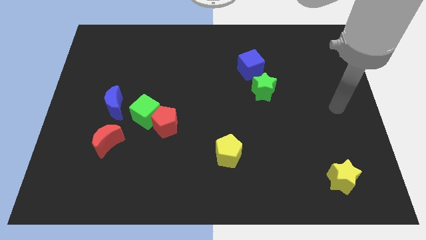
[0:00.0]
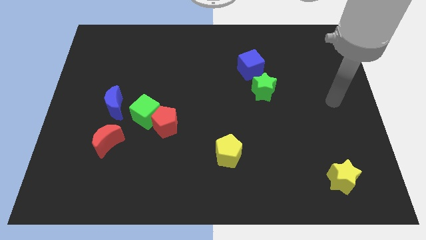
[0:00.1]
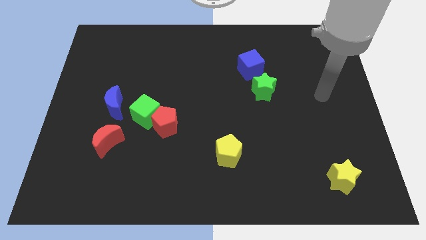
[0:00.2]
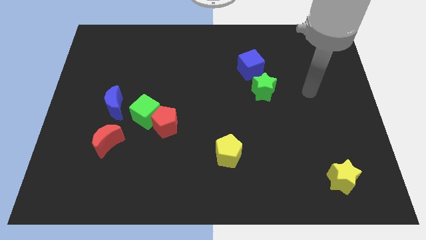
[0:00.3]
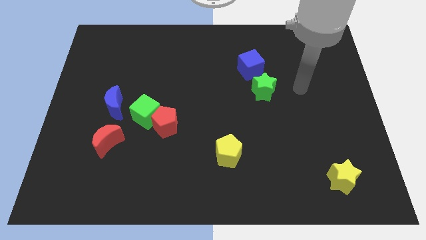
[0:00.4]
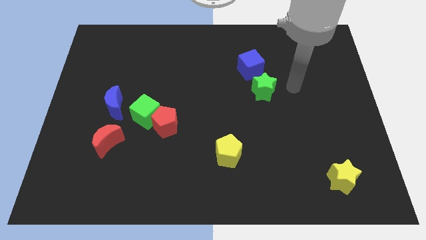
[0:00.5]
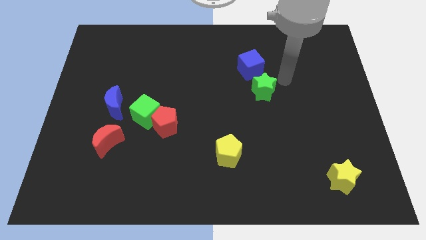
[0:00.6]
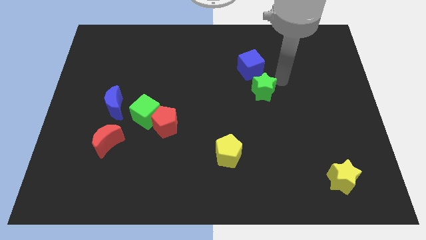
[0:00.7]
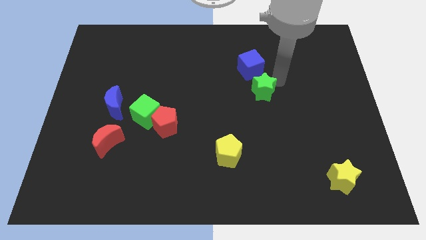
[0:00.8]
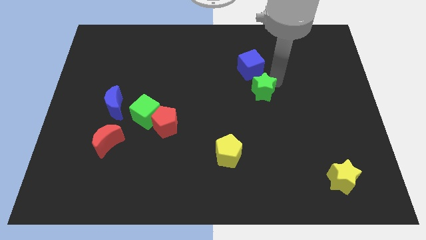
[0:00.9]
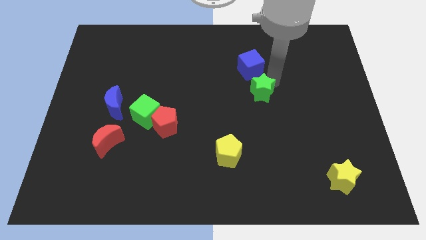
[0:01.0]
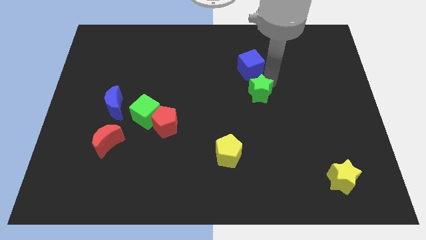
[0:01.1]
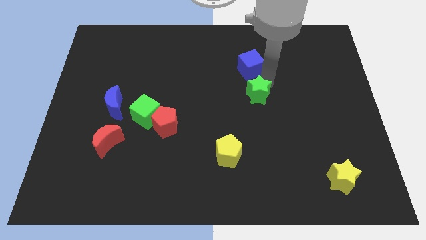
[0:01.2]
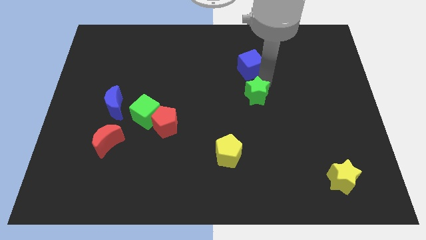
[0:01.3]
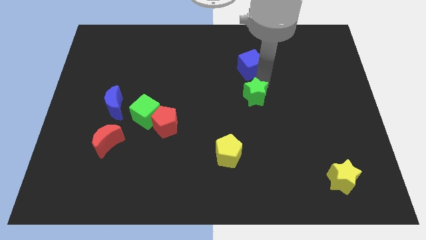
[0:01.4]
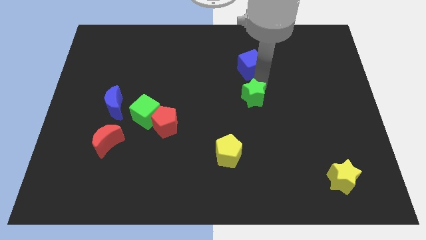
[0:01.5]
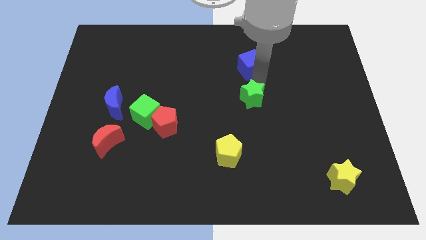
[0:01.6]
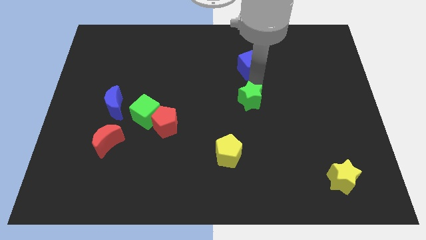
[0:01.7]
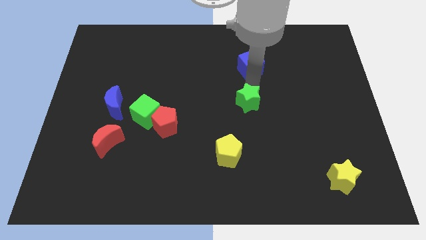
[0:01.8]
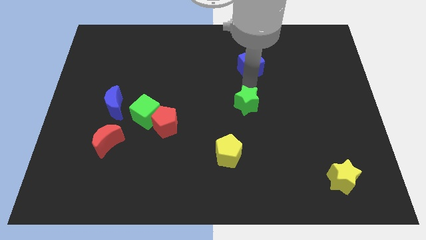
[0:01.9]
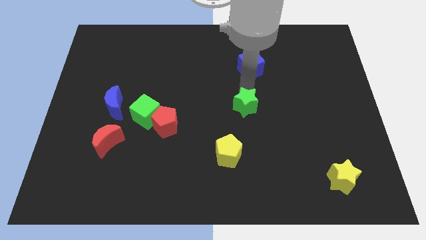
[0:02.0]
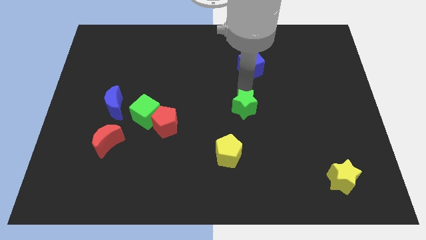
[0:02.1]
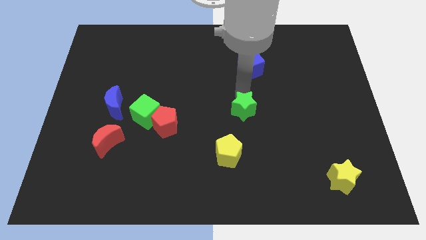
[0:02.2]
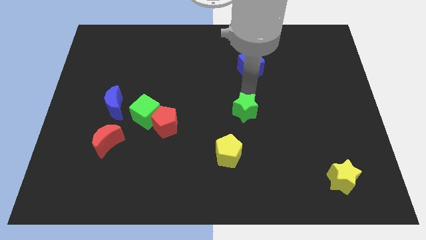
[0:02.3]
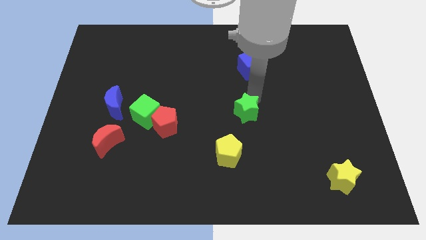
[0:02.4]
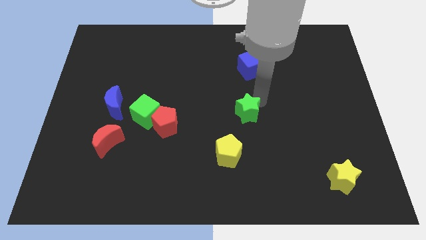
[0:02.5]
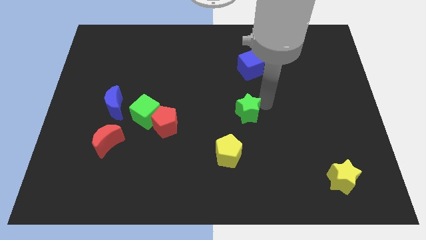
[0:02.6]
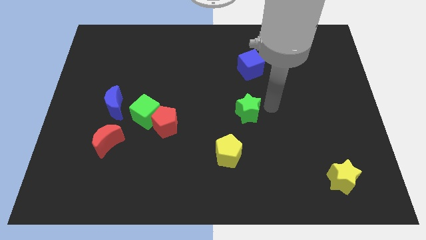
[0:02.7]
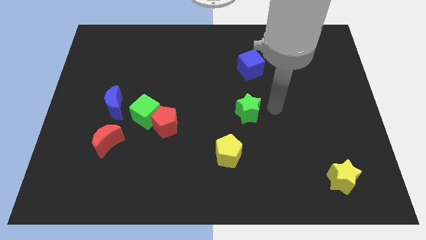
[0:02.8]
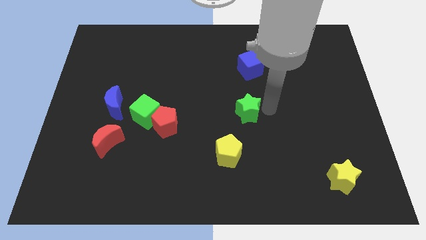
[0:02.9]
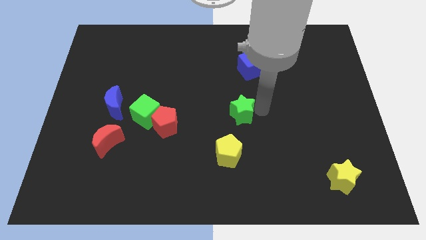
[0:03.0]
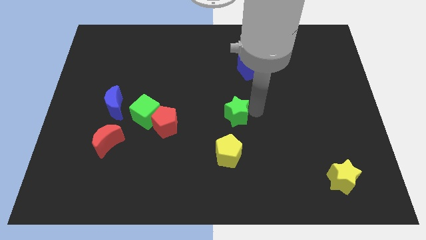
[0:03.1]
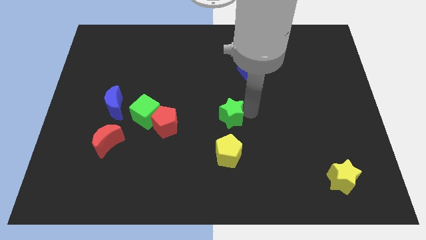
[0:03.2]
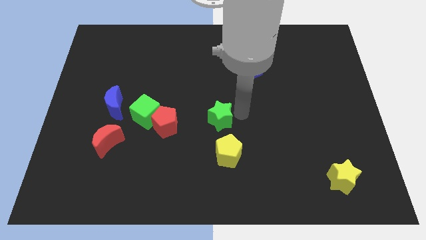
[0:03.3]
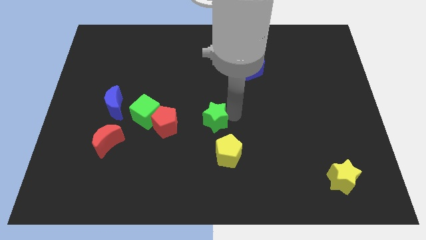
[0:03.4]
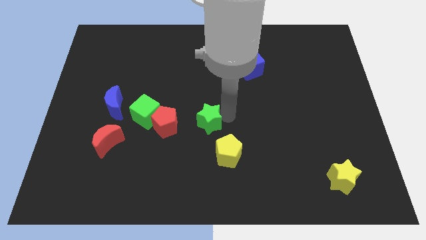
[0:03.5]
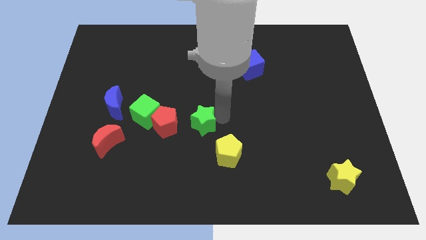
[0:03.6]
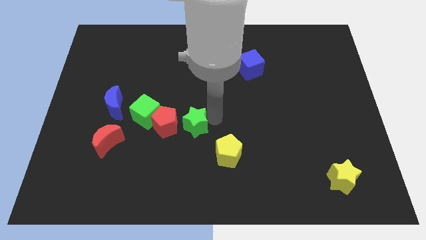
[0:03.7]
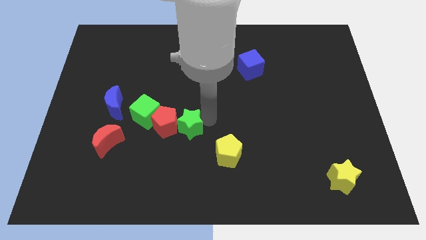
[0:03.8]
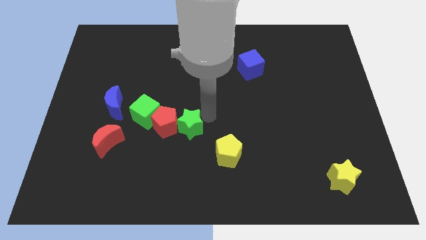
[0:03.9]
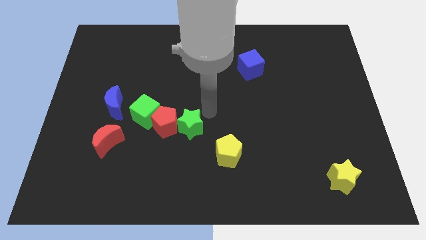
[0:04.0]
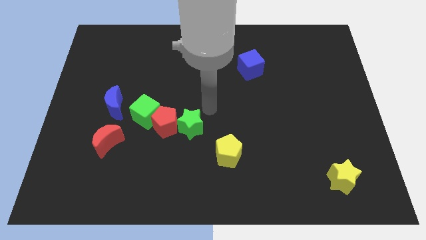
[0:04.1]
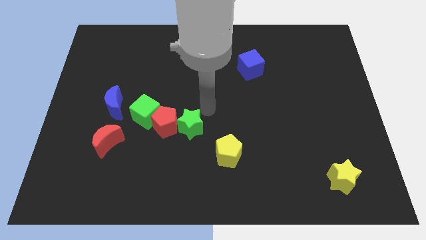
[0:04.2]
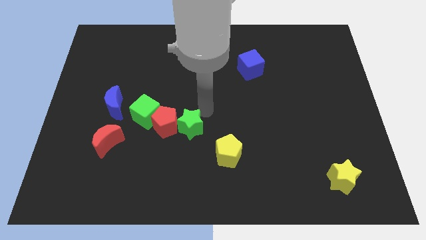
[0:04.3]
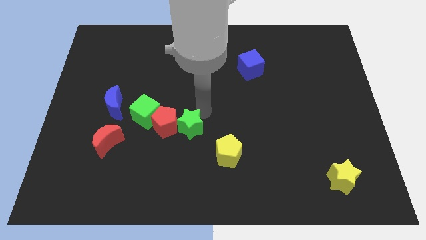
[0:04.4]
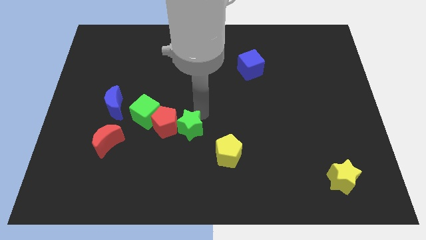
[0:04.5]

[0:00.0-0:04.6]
push the green star to the bottom right side of the green cube

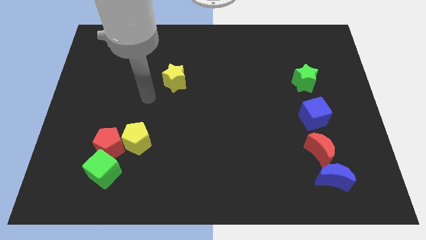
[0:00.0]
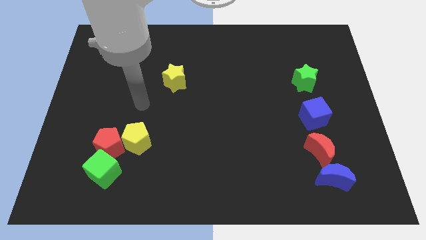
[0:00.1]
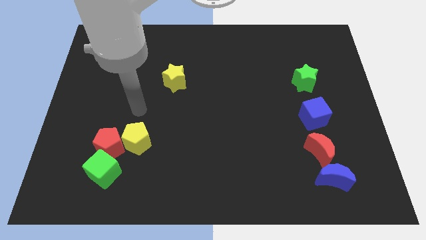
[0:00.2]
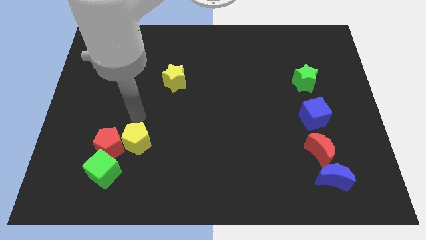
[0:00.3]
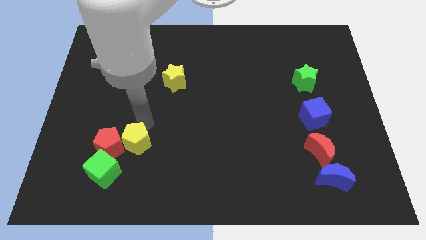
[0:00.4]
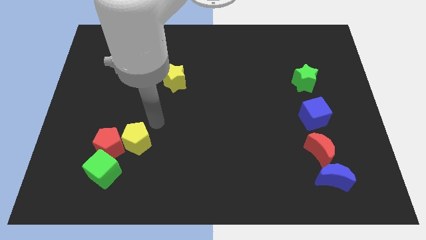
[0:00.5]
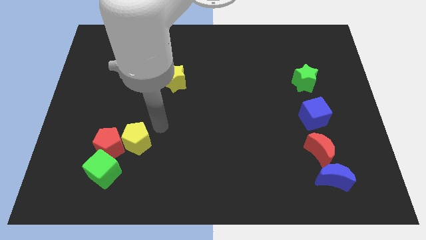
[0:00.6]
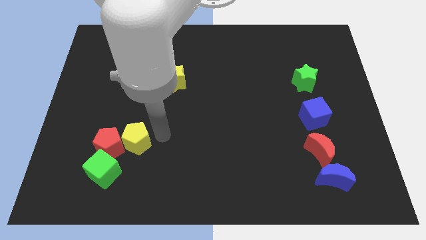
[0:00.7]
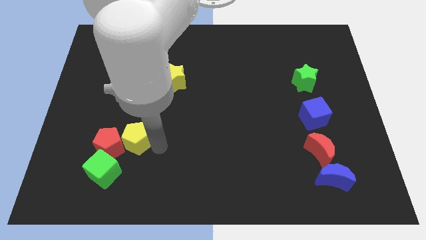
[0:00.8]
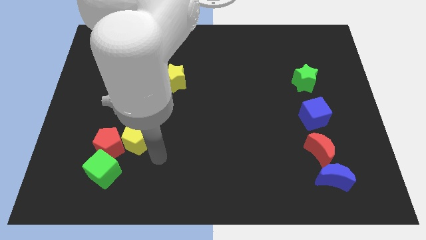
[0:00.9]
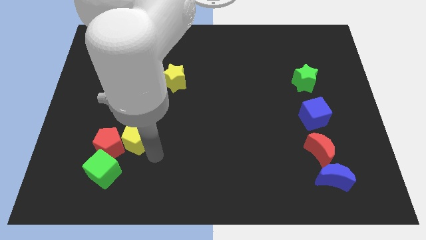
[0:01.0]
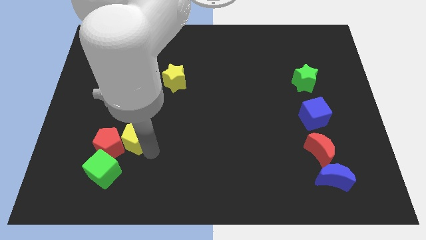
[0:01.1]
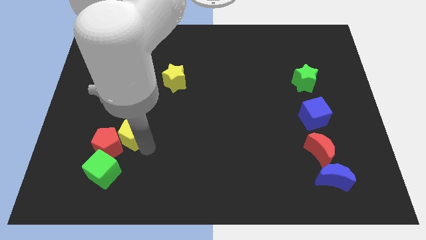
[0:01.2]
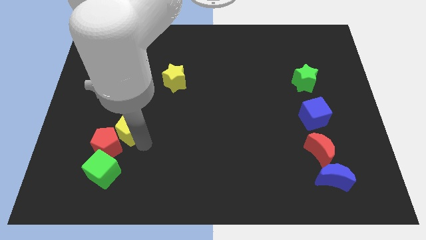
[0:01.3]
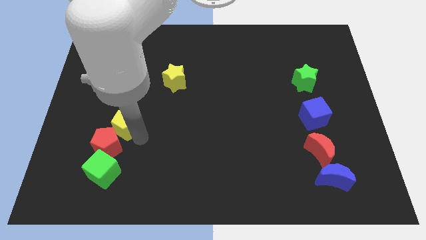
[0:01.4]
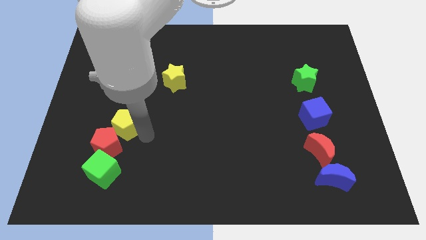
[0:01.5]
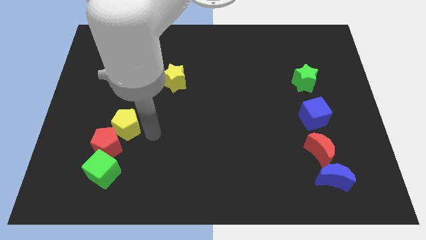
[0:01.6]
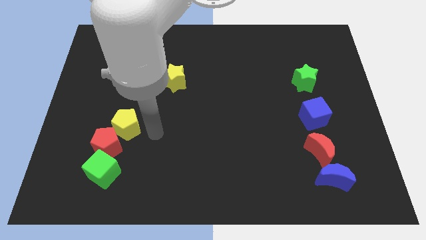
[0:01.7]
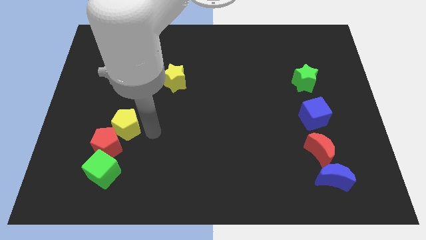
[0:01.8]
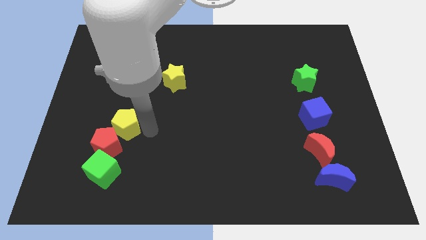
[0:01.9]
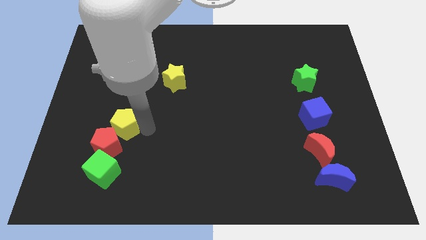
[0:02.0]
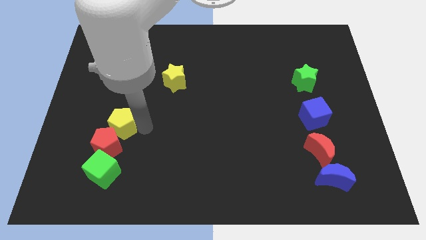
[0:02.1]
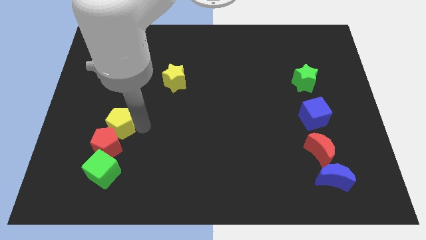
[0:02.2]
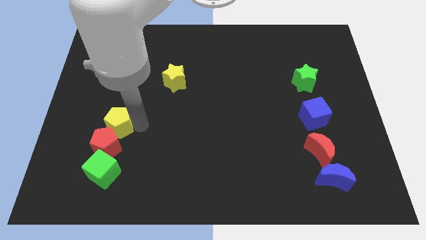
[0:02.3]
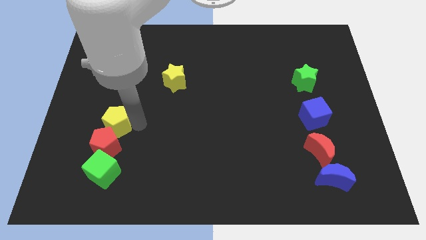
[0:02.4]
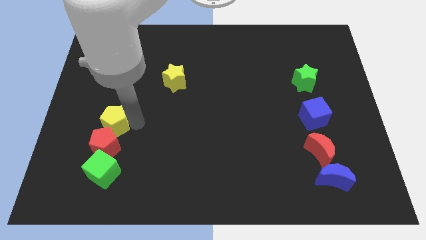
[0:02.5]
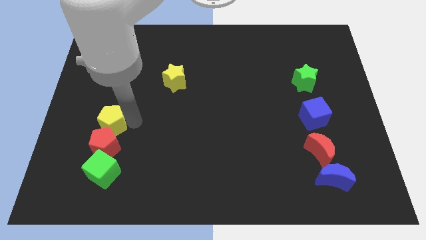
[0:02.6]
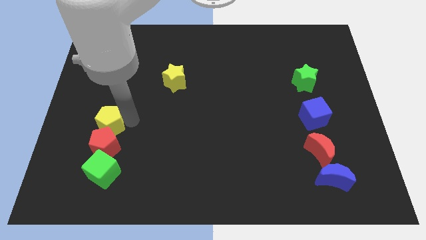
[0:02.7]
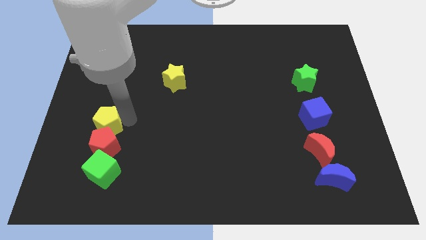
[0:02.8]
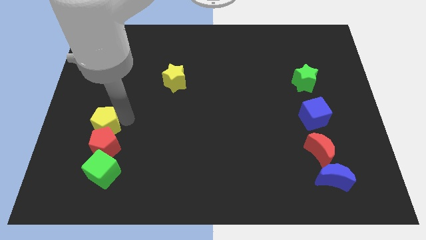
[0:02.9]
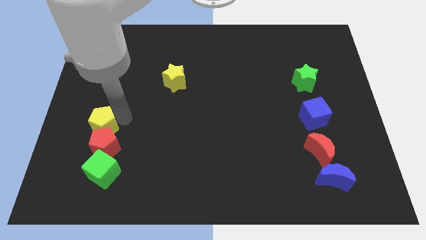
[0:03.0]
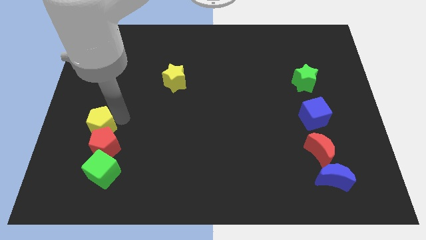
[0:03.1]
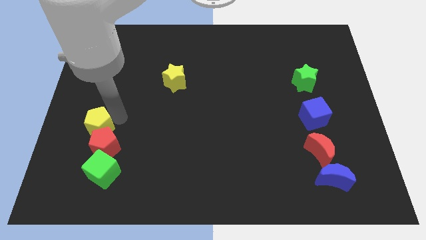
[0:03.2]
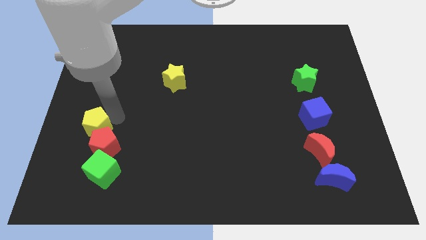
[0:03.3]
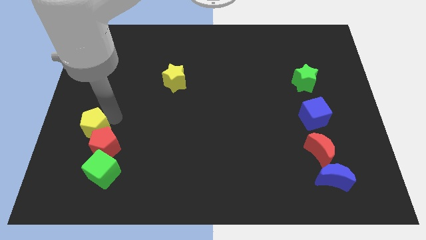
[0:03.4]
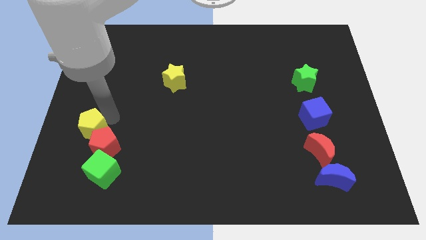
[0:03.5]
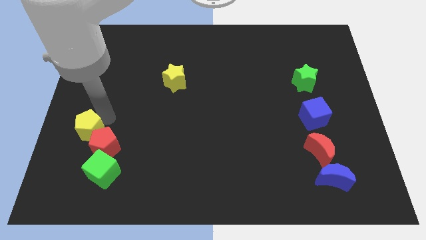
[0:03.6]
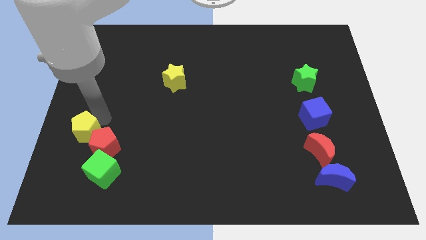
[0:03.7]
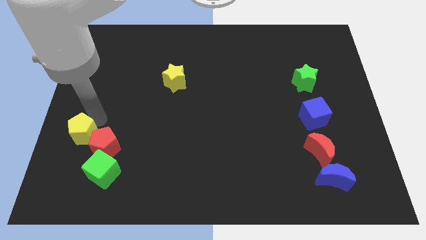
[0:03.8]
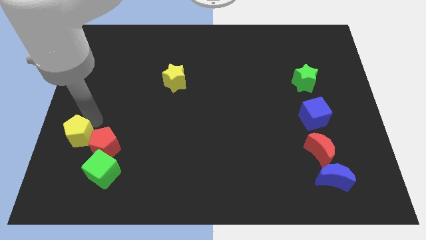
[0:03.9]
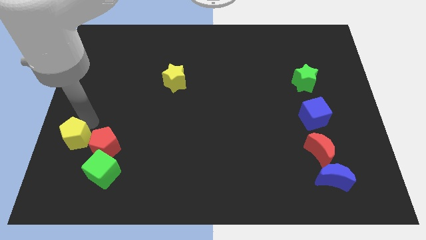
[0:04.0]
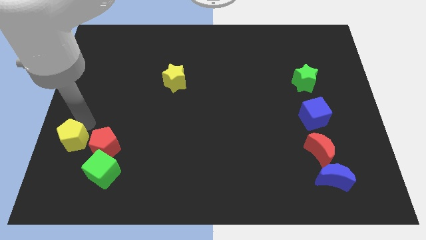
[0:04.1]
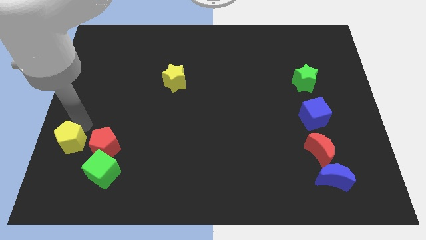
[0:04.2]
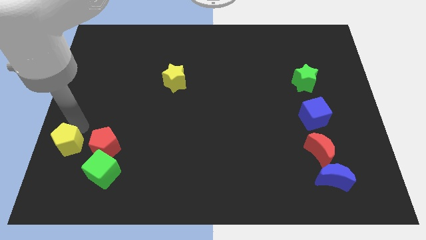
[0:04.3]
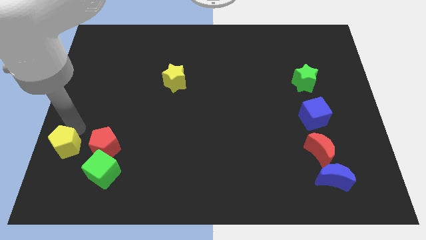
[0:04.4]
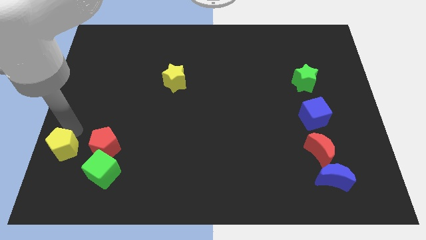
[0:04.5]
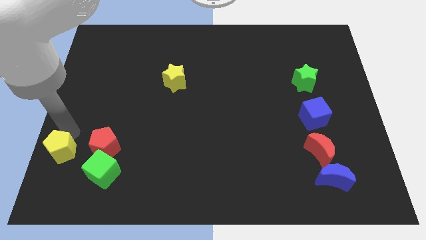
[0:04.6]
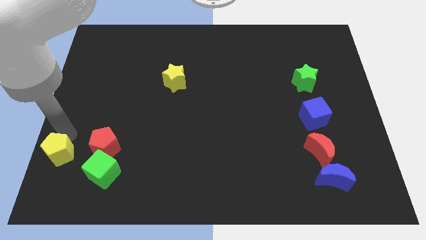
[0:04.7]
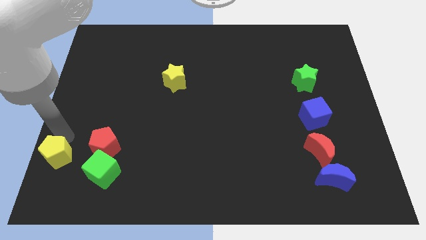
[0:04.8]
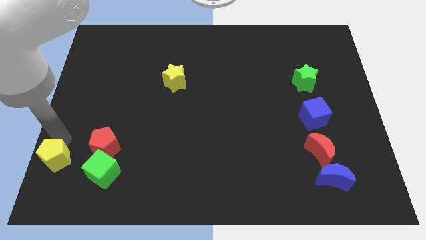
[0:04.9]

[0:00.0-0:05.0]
push the yellow pentagon to the bottom left of the red pentagon
